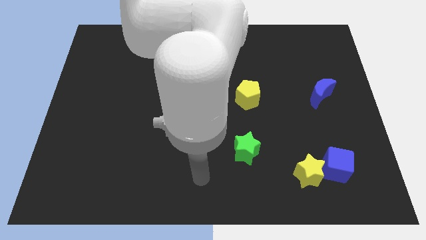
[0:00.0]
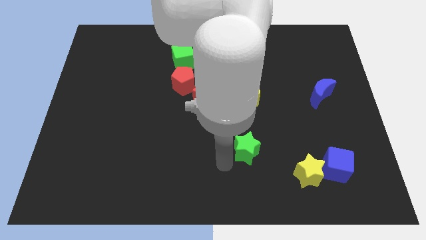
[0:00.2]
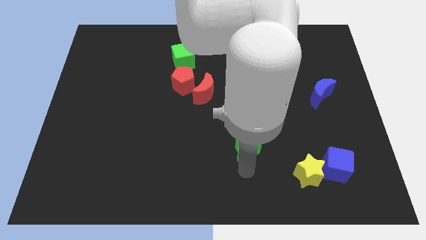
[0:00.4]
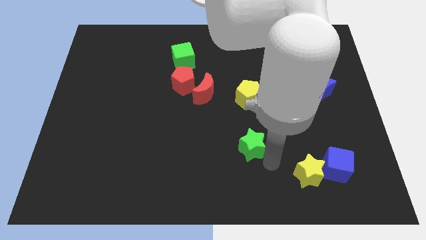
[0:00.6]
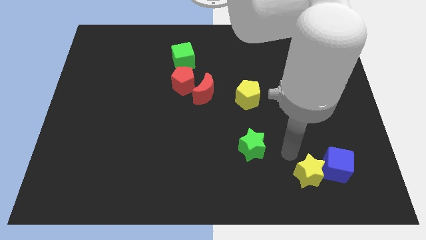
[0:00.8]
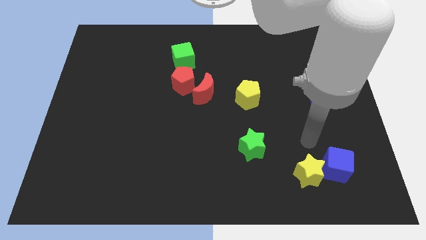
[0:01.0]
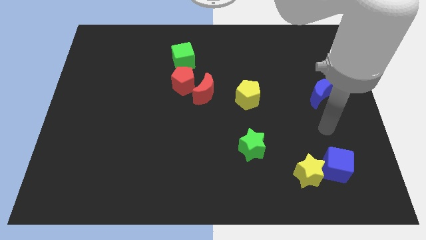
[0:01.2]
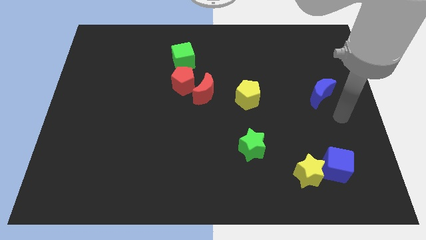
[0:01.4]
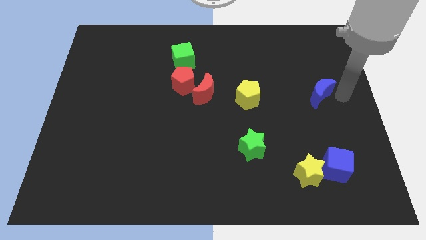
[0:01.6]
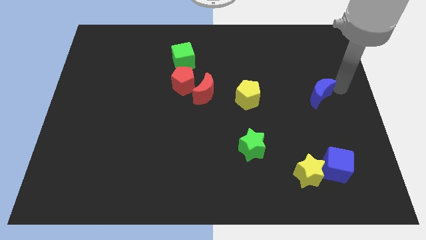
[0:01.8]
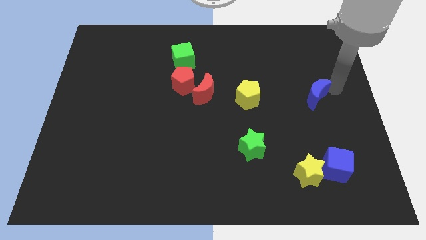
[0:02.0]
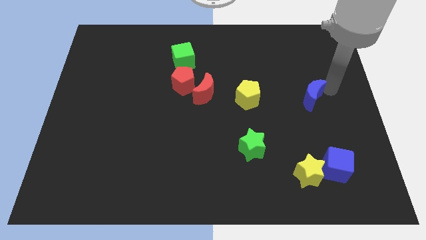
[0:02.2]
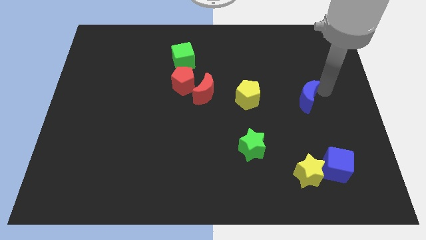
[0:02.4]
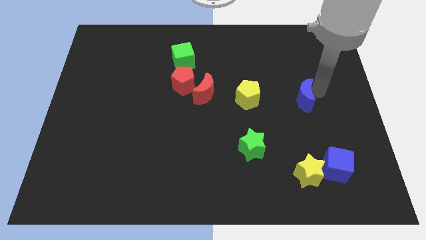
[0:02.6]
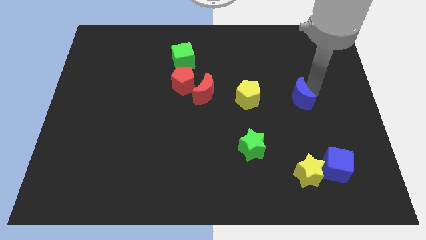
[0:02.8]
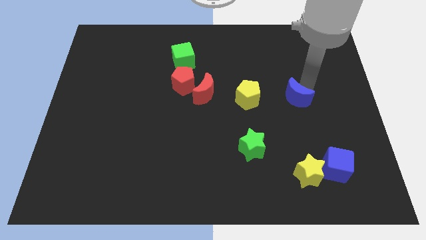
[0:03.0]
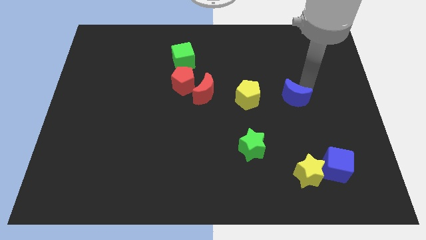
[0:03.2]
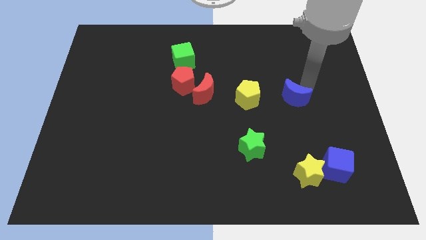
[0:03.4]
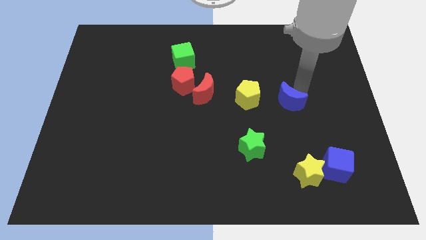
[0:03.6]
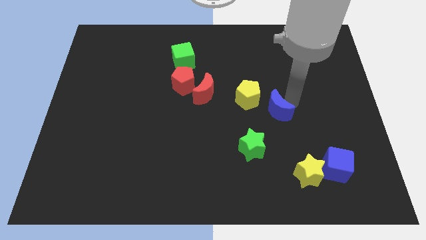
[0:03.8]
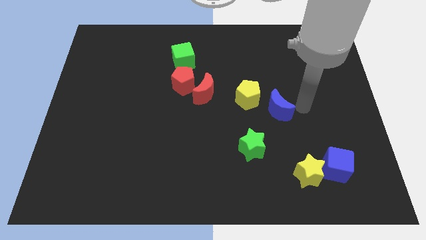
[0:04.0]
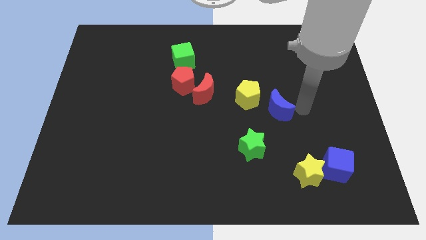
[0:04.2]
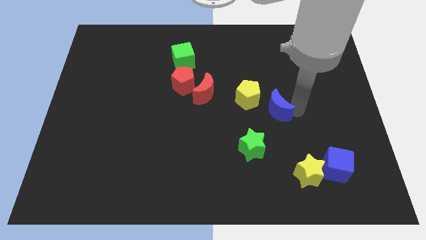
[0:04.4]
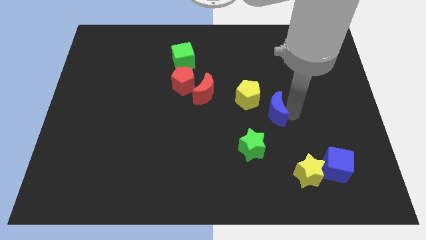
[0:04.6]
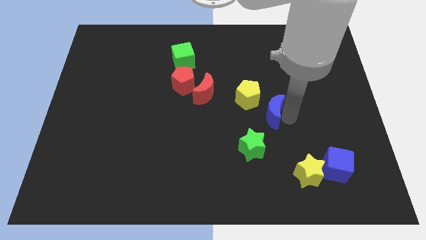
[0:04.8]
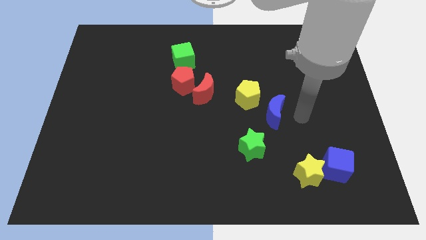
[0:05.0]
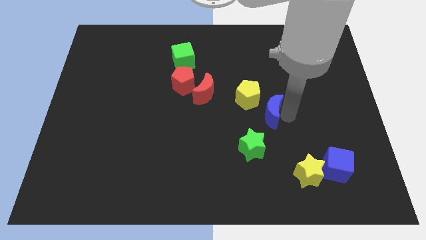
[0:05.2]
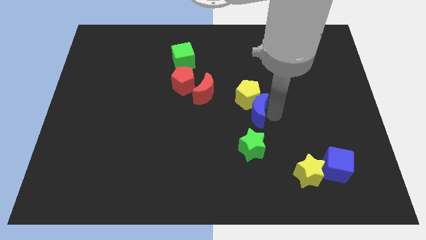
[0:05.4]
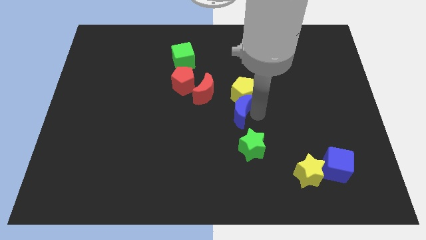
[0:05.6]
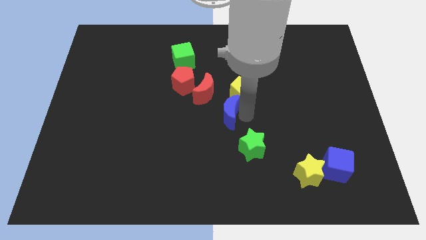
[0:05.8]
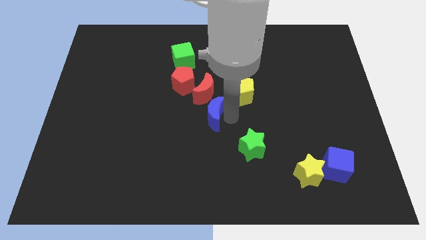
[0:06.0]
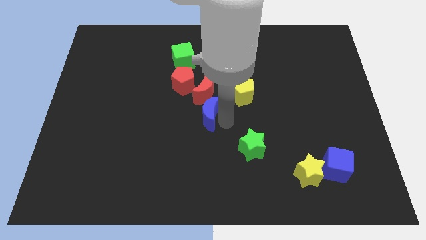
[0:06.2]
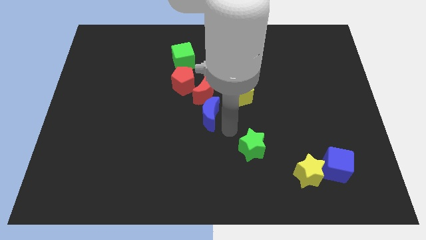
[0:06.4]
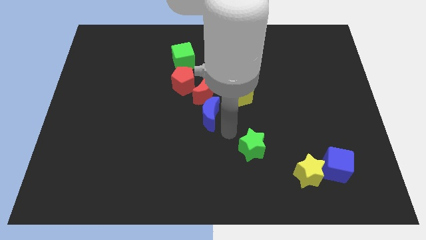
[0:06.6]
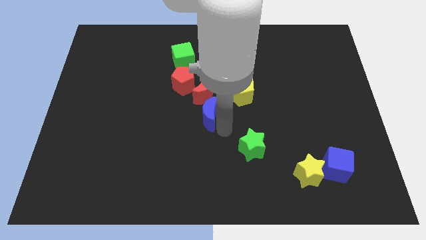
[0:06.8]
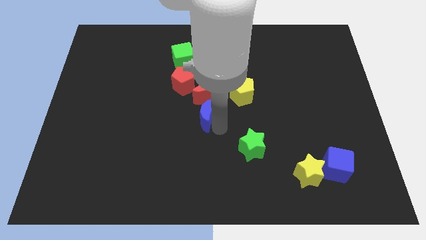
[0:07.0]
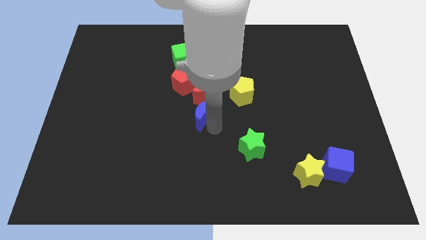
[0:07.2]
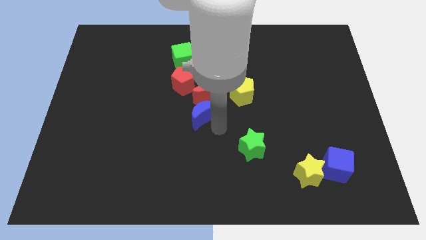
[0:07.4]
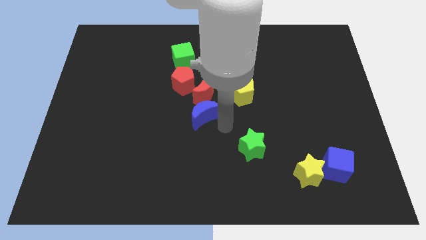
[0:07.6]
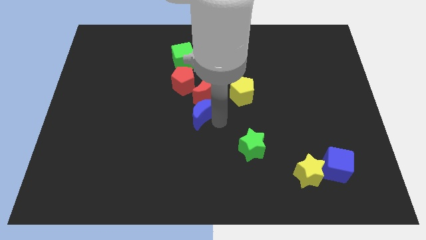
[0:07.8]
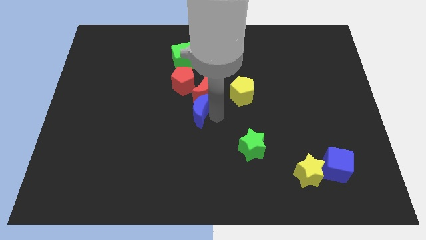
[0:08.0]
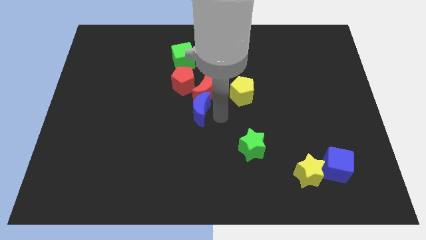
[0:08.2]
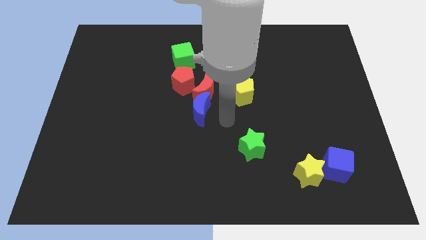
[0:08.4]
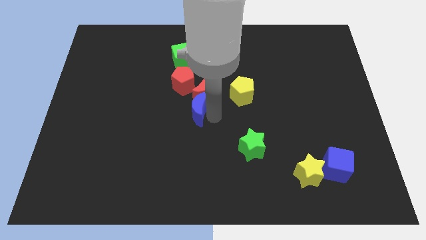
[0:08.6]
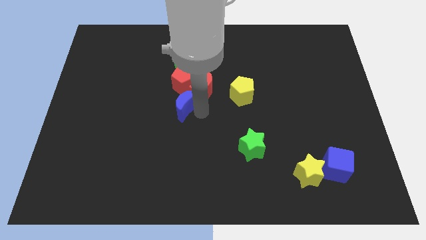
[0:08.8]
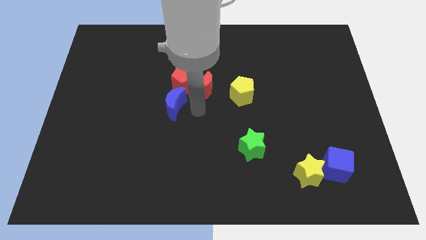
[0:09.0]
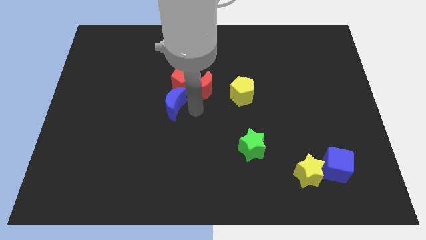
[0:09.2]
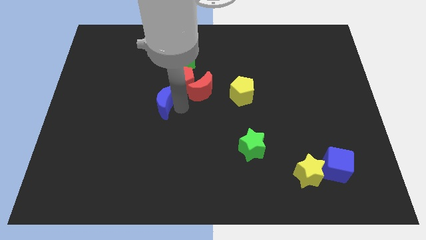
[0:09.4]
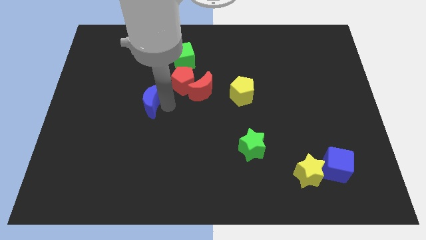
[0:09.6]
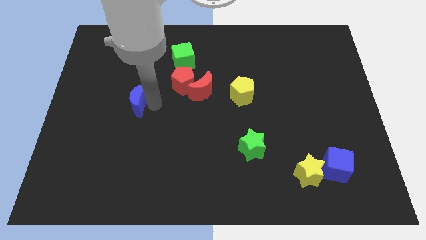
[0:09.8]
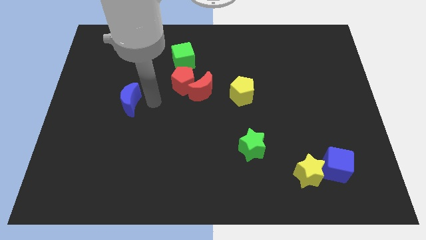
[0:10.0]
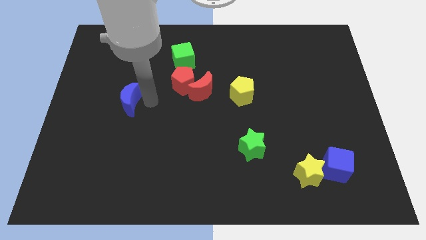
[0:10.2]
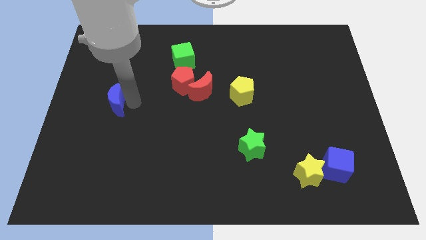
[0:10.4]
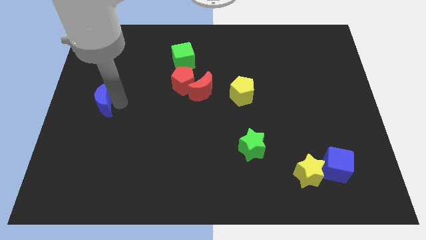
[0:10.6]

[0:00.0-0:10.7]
move the blue moon to the left side

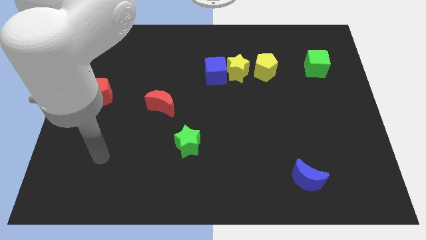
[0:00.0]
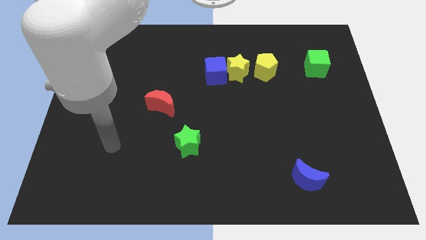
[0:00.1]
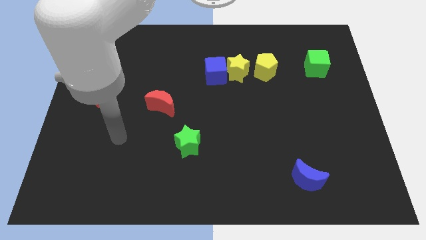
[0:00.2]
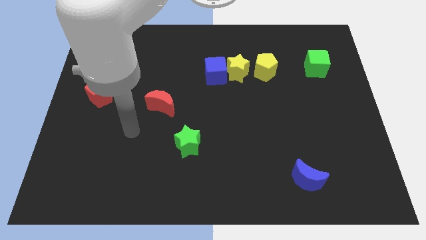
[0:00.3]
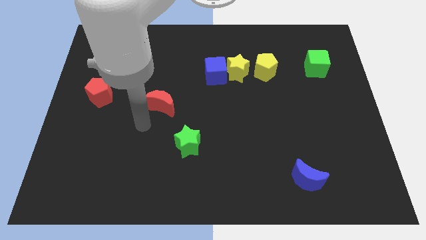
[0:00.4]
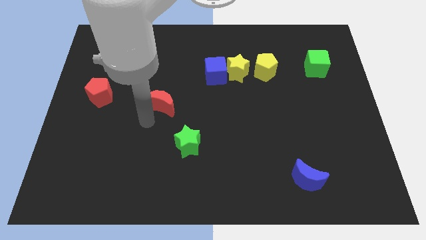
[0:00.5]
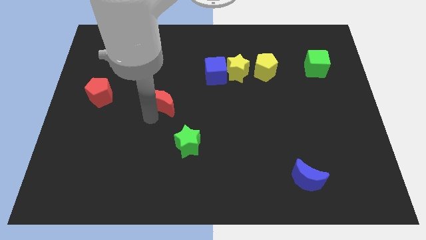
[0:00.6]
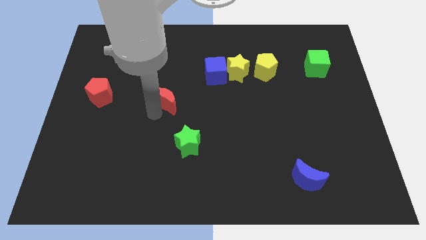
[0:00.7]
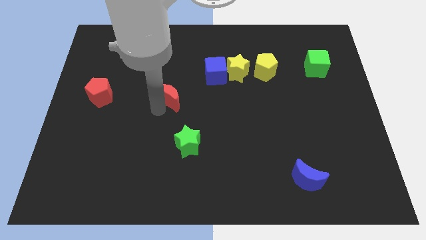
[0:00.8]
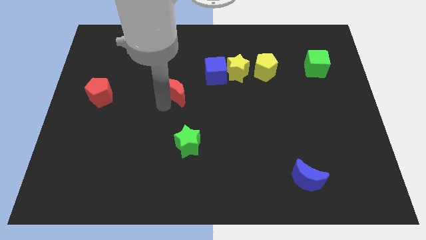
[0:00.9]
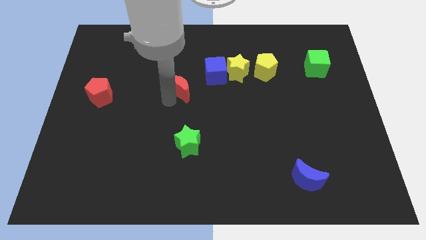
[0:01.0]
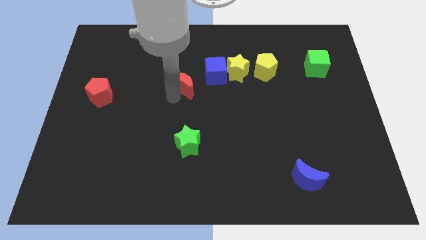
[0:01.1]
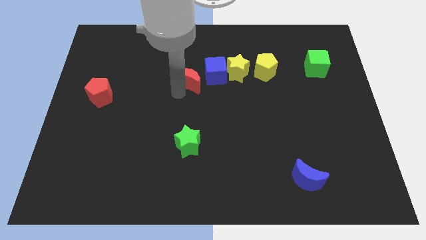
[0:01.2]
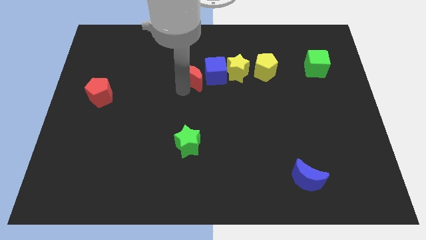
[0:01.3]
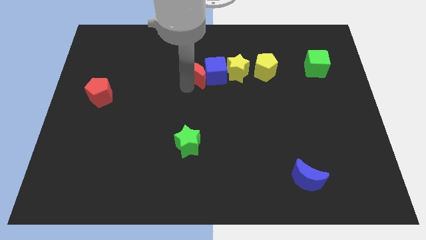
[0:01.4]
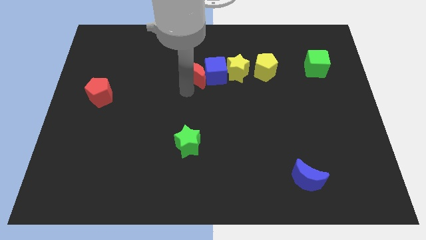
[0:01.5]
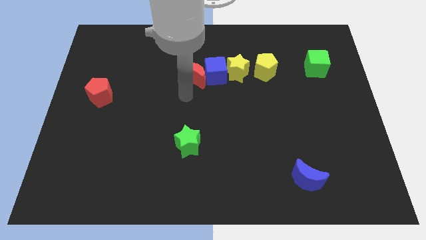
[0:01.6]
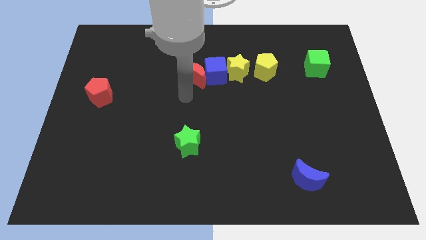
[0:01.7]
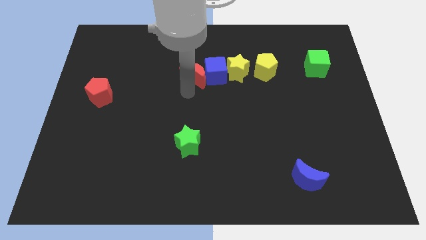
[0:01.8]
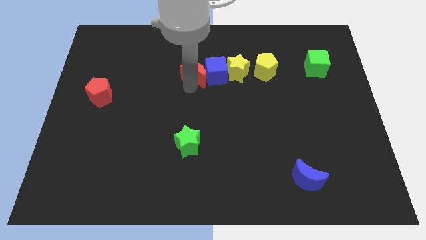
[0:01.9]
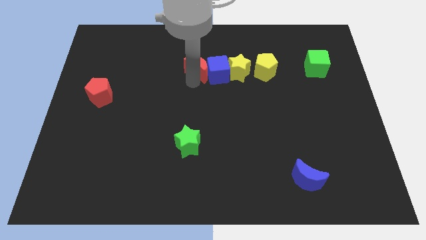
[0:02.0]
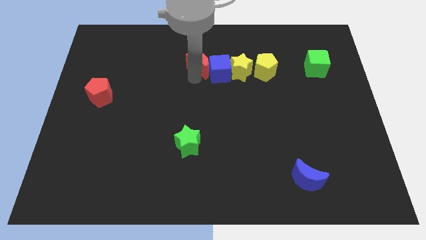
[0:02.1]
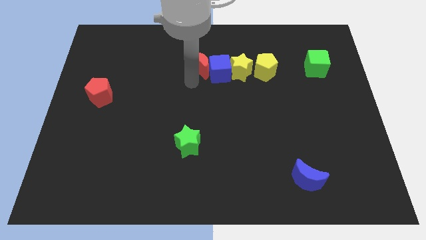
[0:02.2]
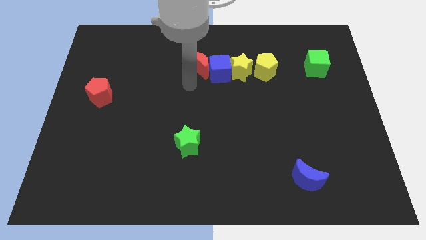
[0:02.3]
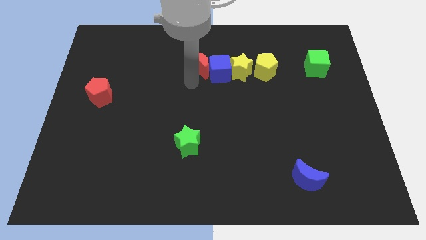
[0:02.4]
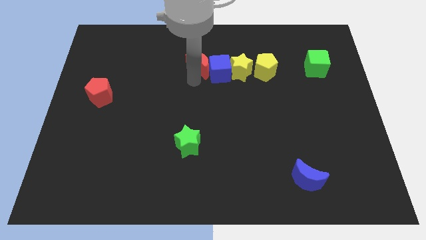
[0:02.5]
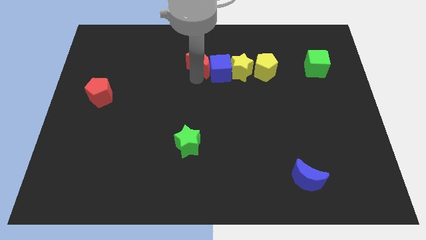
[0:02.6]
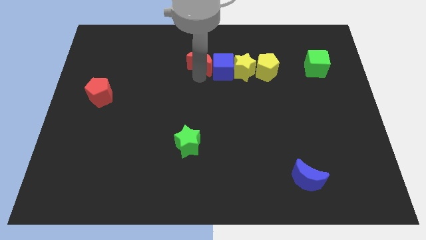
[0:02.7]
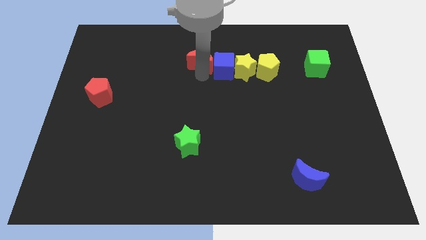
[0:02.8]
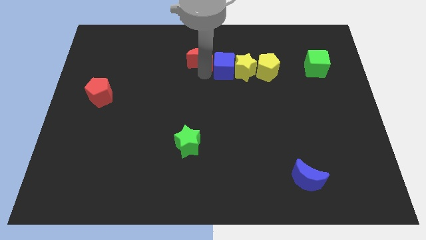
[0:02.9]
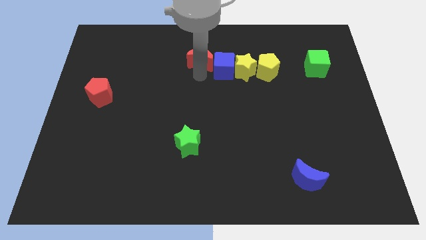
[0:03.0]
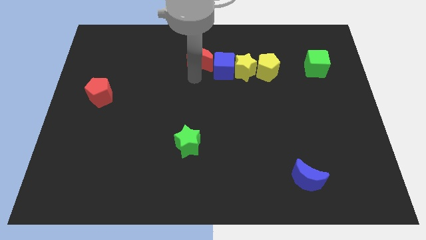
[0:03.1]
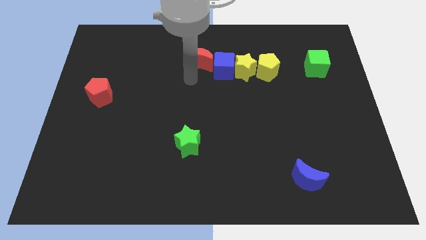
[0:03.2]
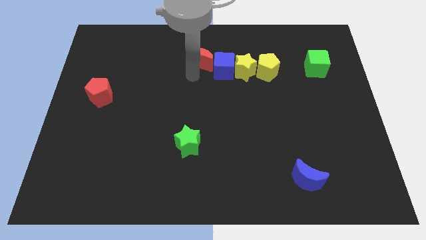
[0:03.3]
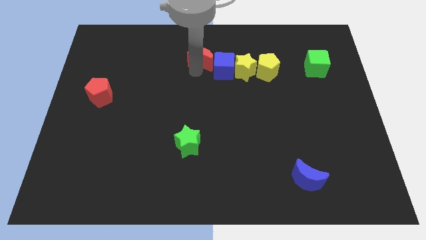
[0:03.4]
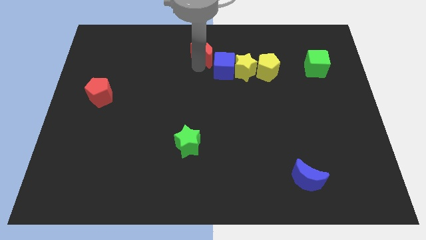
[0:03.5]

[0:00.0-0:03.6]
put the red moon to the top
